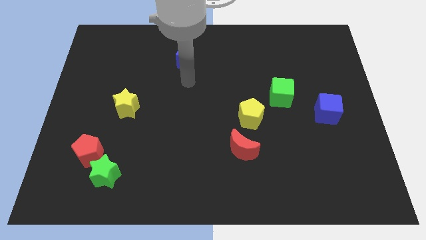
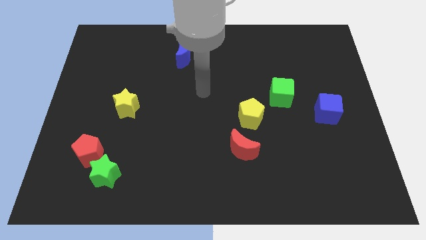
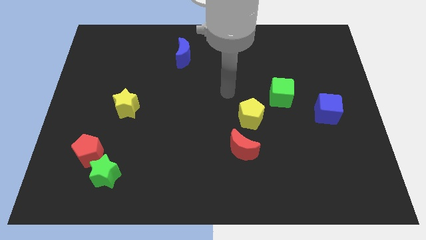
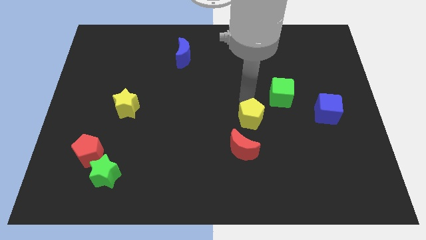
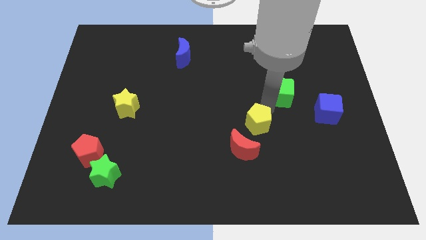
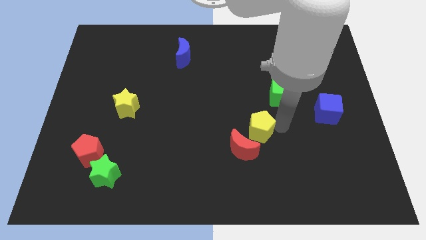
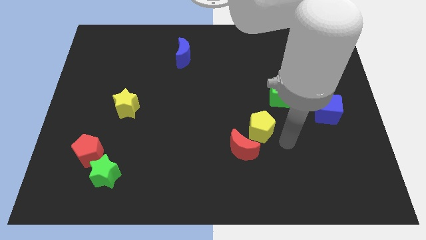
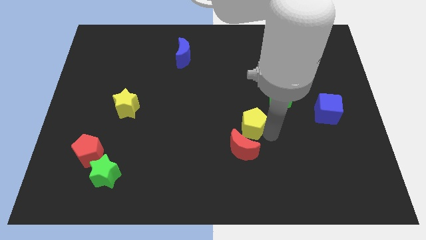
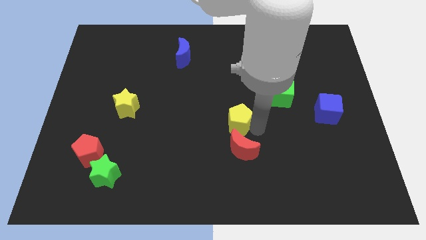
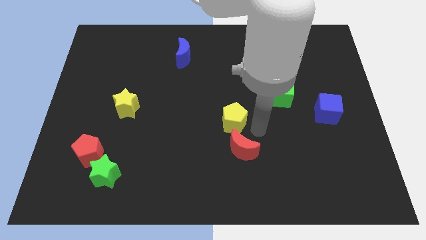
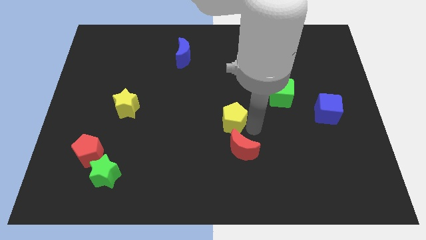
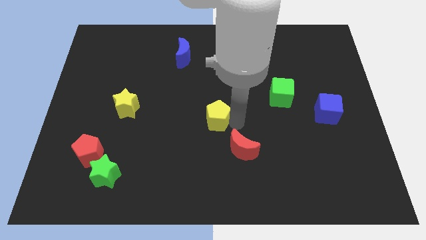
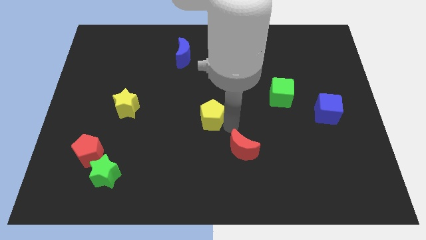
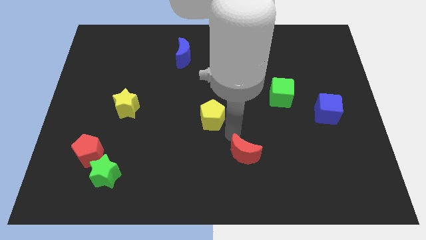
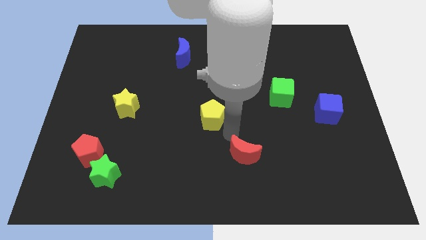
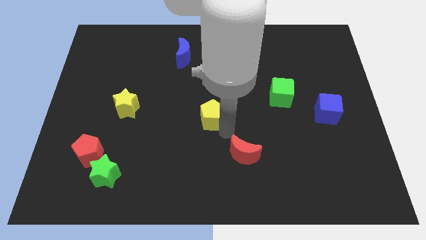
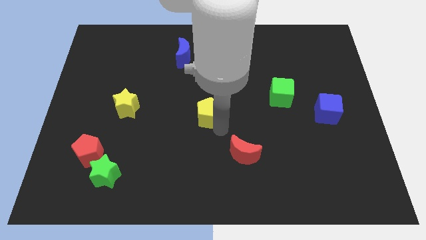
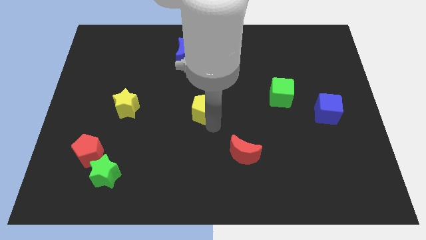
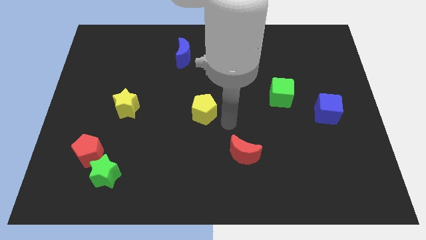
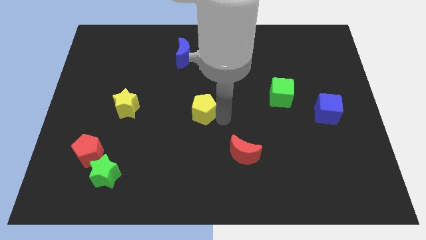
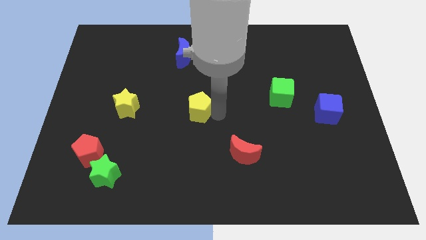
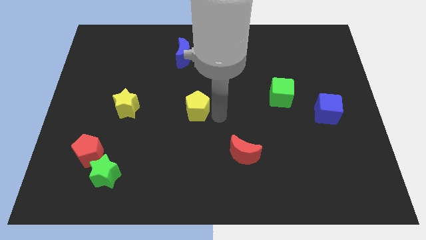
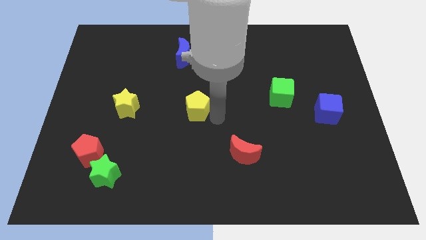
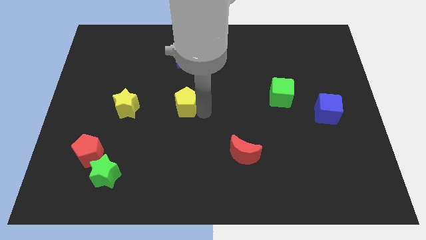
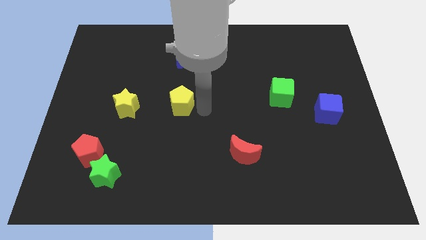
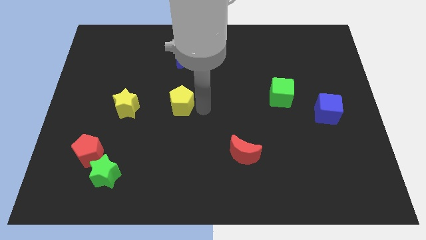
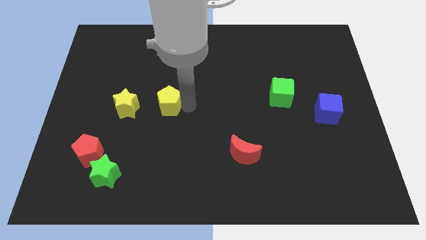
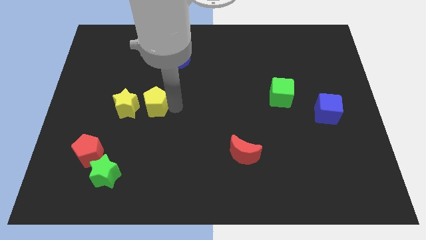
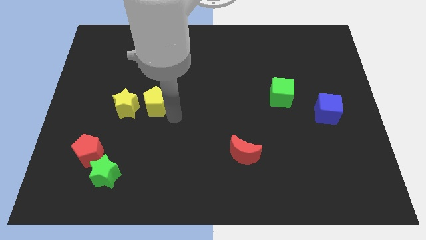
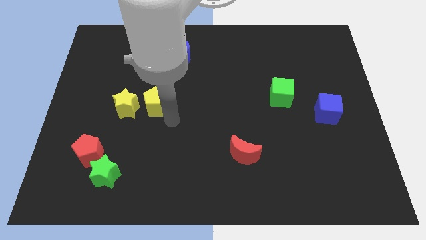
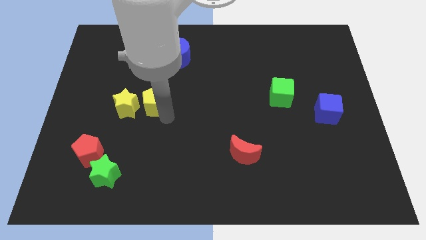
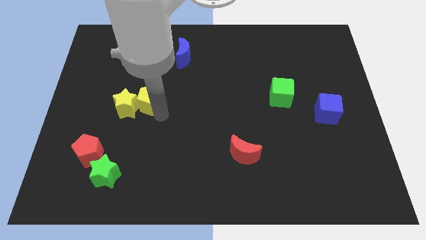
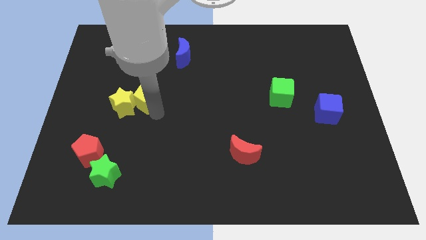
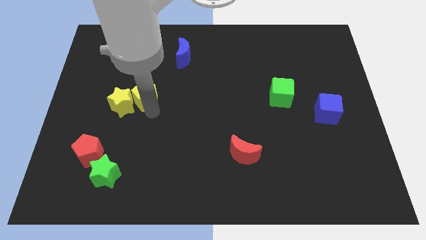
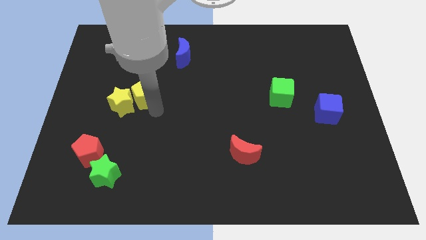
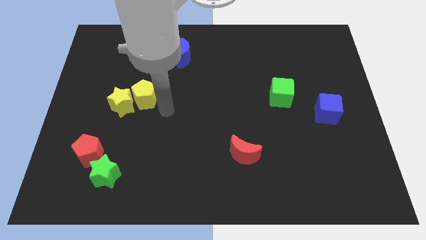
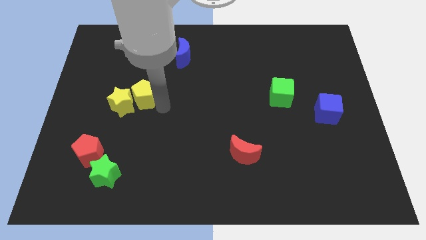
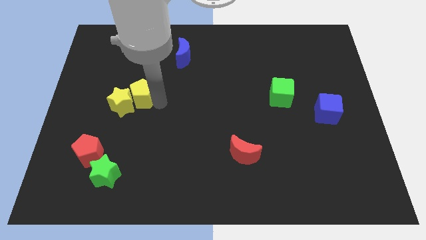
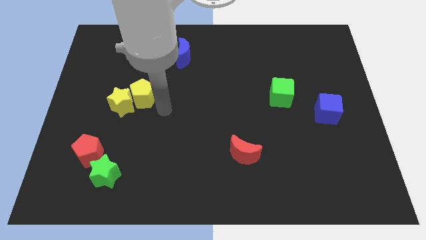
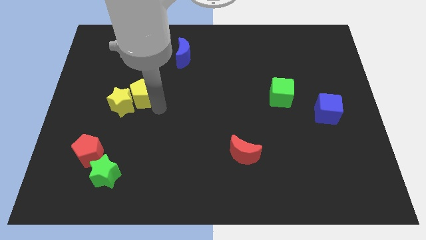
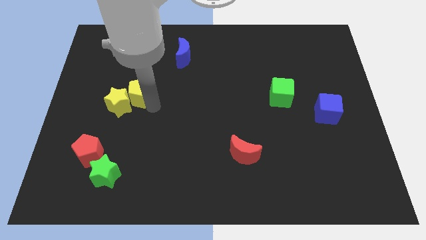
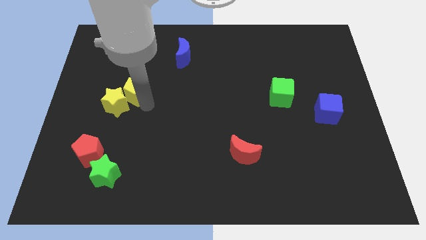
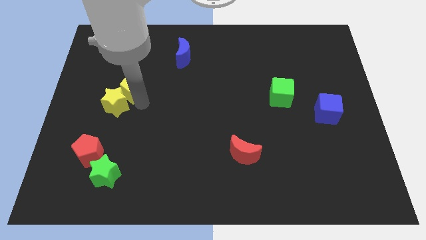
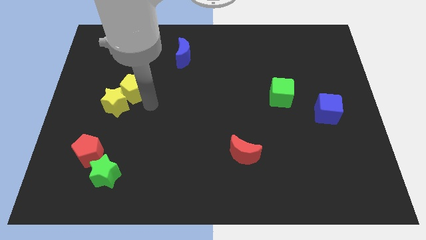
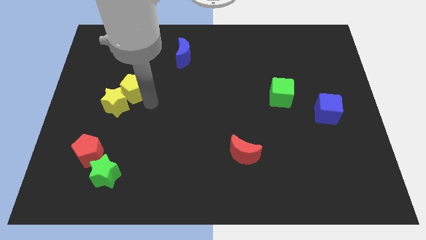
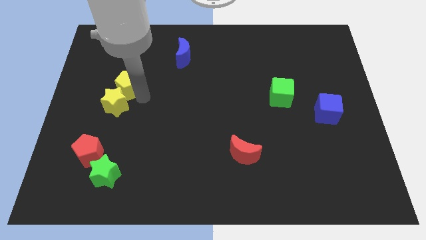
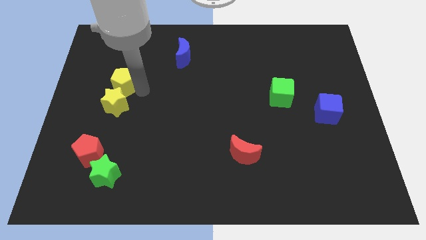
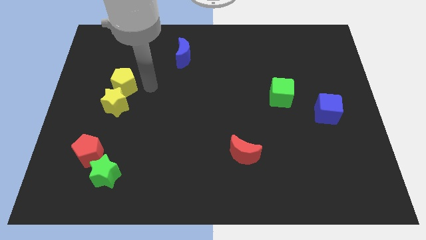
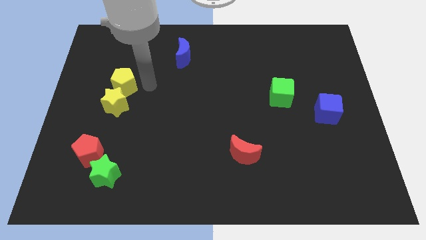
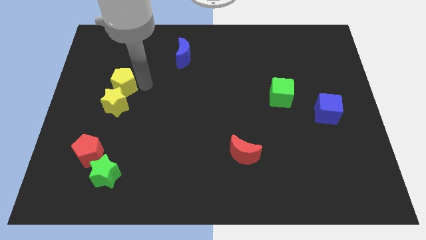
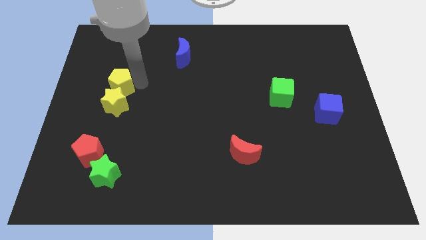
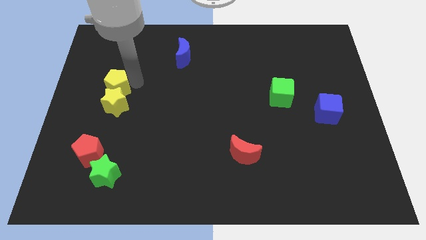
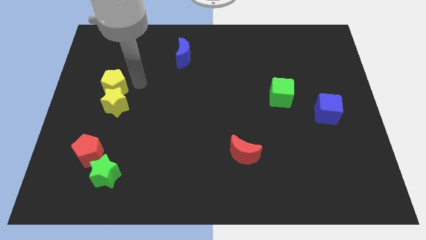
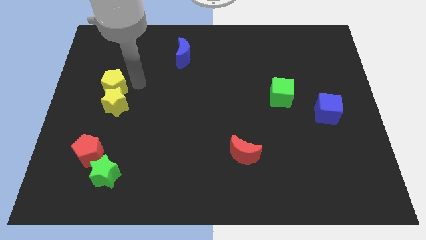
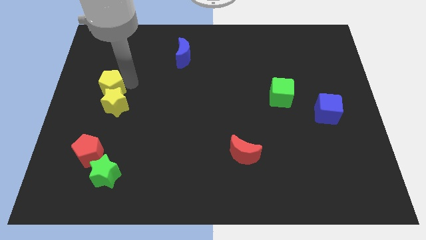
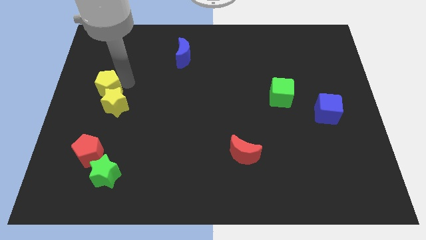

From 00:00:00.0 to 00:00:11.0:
put the yellow pentagon to the left side
